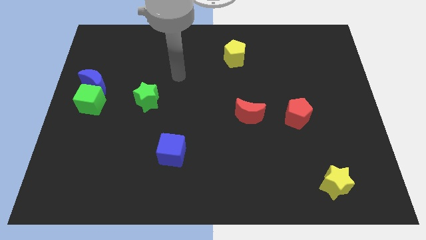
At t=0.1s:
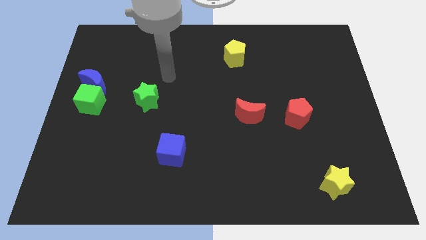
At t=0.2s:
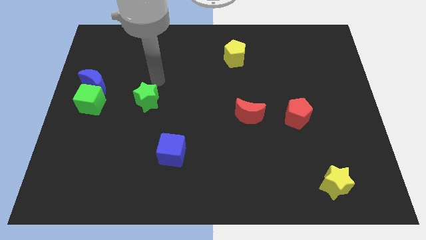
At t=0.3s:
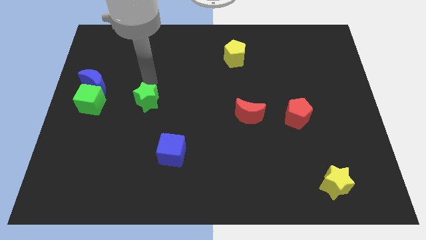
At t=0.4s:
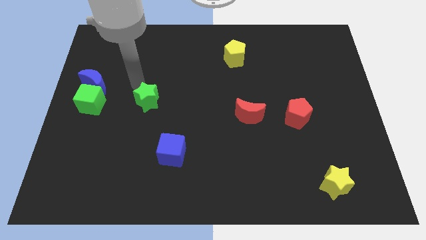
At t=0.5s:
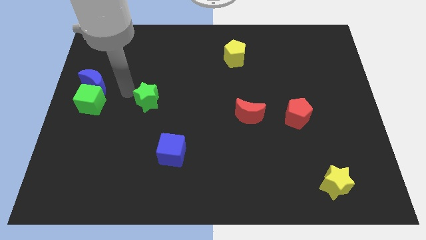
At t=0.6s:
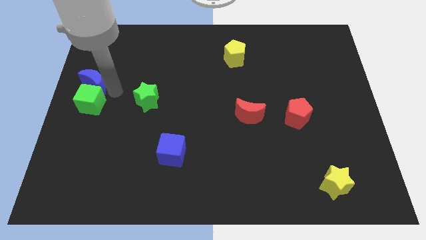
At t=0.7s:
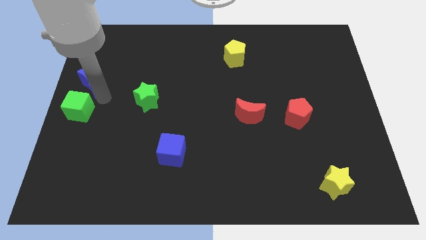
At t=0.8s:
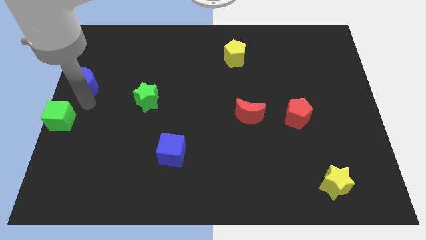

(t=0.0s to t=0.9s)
separate the blue moon from the green cube

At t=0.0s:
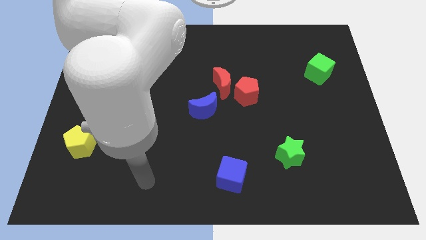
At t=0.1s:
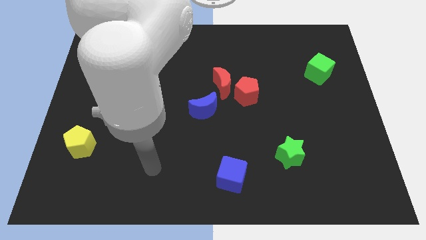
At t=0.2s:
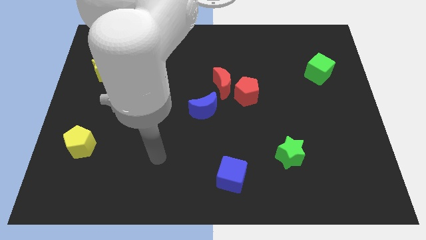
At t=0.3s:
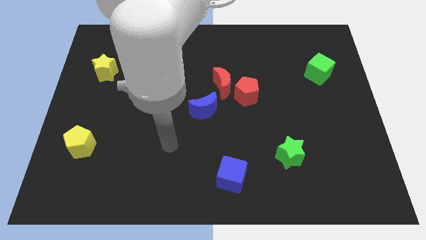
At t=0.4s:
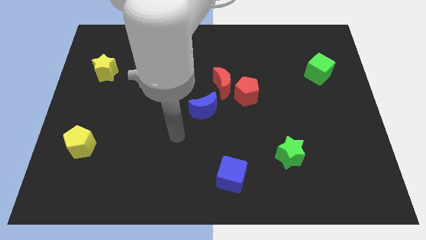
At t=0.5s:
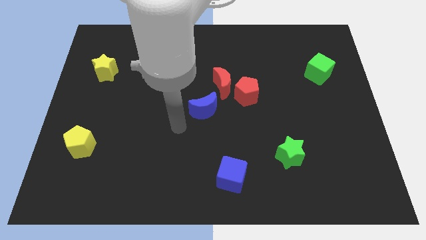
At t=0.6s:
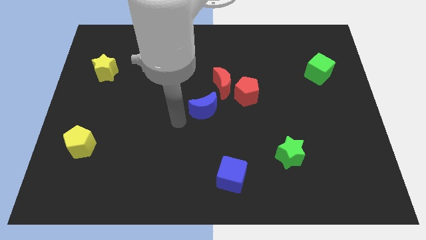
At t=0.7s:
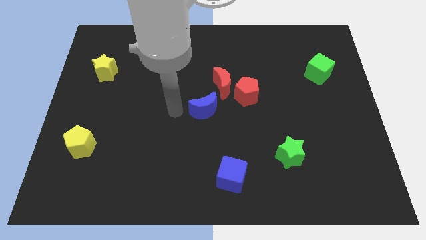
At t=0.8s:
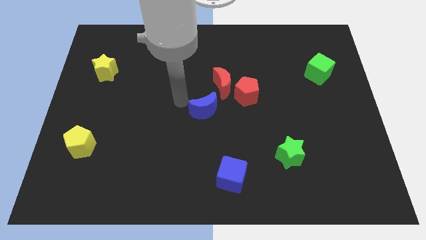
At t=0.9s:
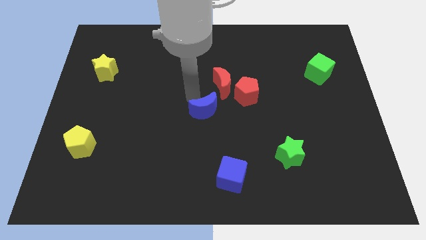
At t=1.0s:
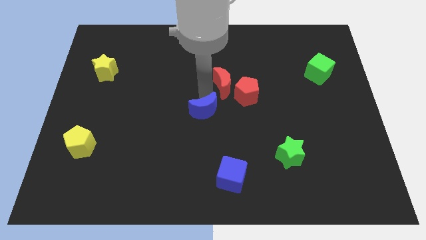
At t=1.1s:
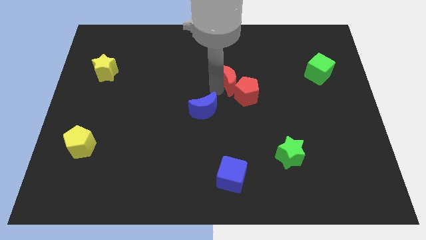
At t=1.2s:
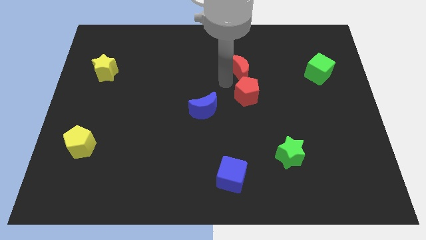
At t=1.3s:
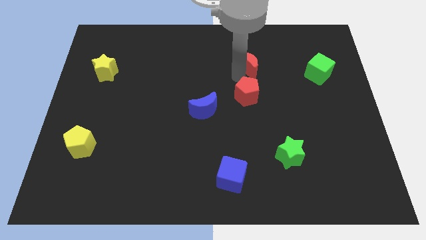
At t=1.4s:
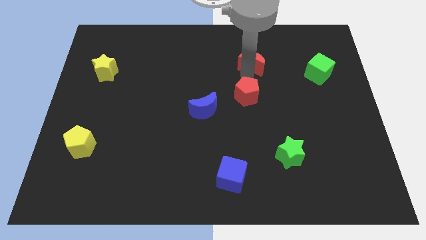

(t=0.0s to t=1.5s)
separate the red pentagon from the red moon

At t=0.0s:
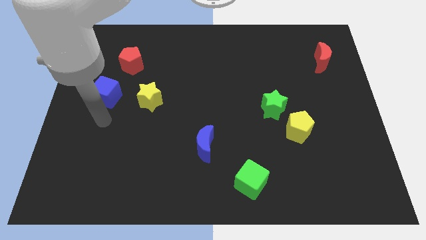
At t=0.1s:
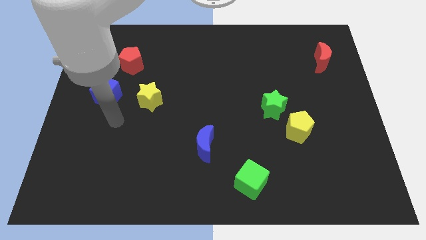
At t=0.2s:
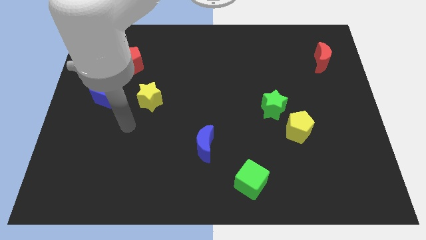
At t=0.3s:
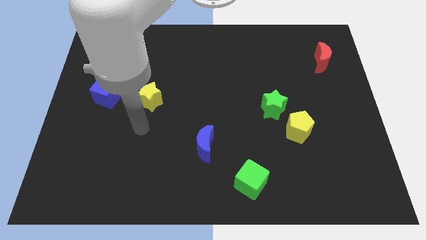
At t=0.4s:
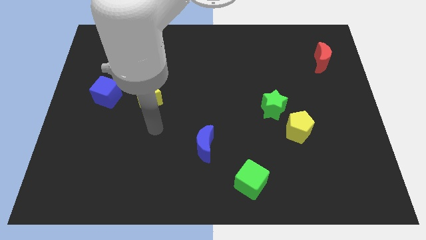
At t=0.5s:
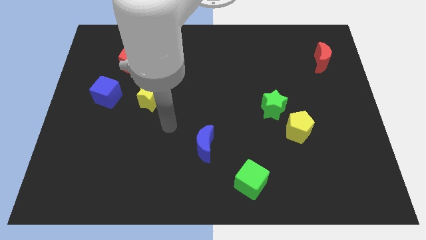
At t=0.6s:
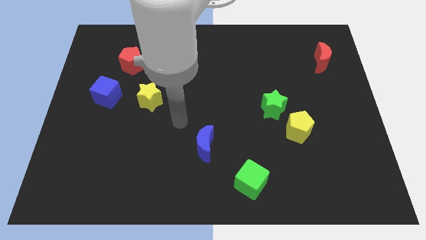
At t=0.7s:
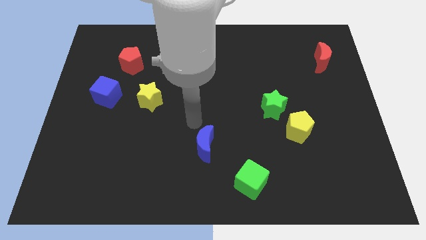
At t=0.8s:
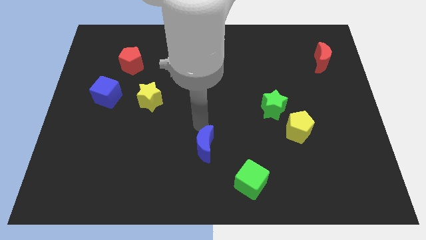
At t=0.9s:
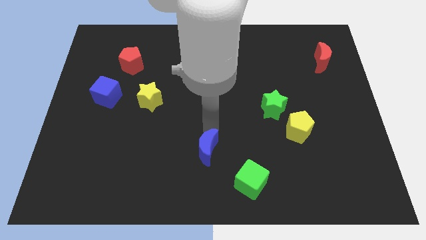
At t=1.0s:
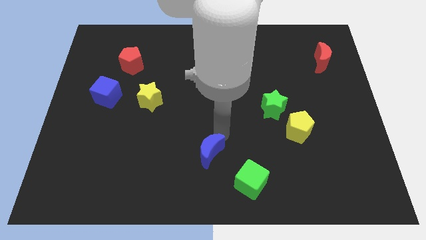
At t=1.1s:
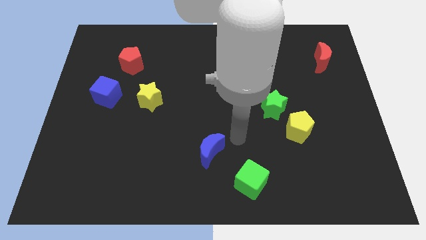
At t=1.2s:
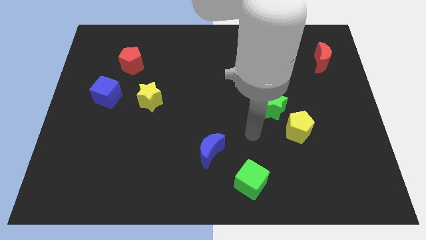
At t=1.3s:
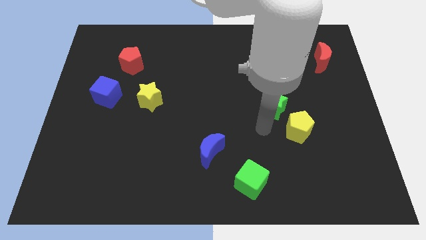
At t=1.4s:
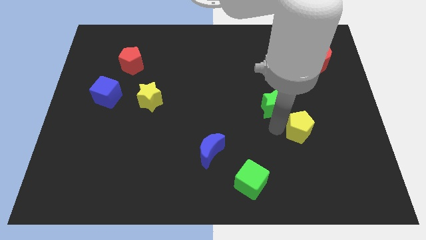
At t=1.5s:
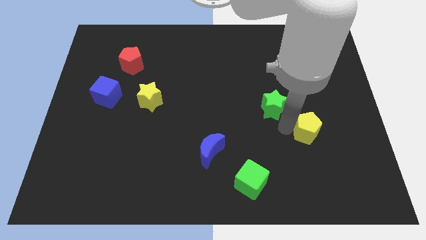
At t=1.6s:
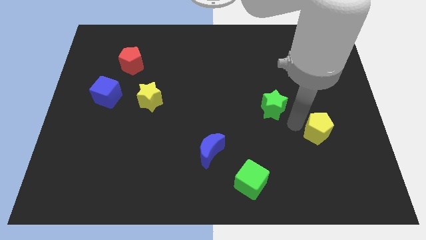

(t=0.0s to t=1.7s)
pull the green star apart from the yellow pentagon

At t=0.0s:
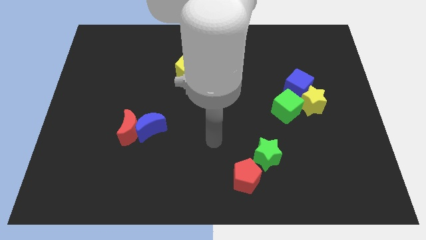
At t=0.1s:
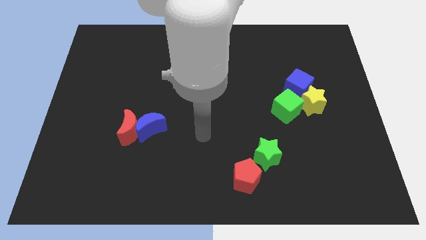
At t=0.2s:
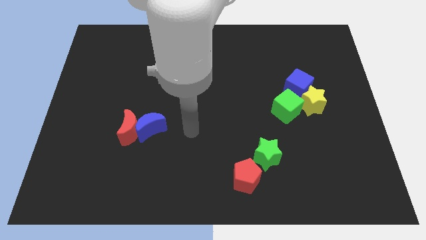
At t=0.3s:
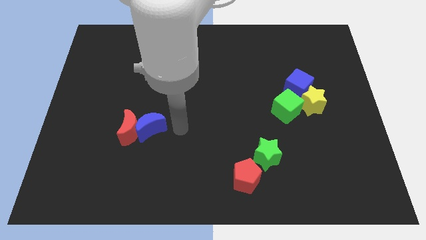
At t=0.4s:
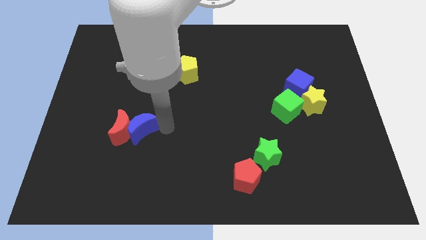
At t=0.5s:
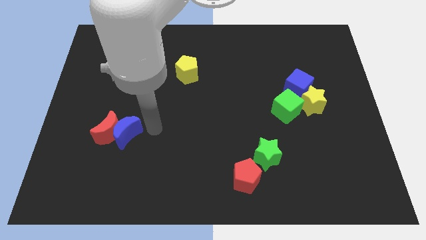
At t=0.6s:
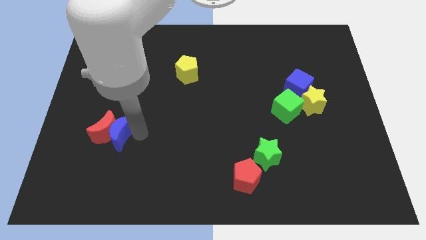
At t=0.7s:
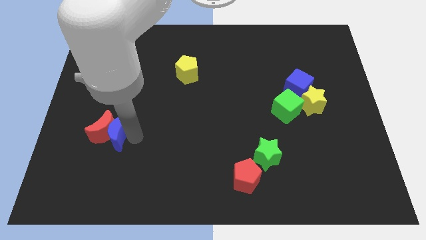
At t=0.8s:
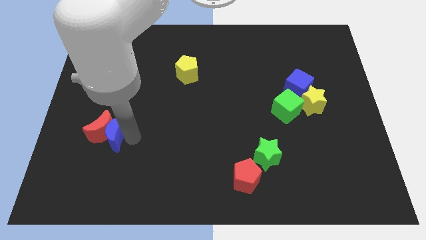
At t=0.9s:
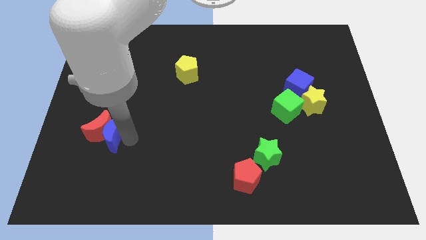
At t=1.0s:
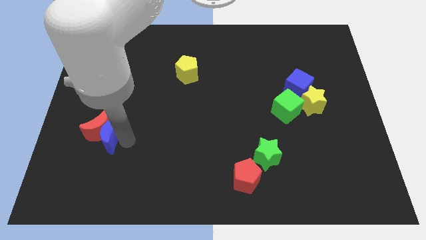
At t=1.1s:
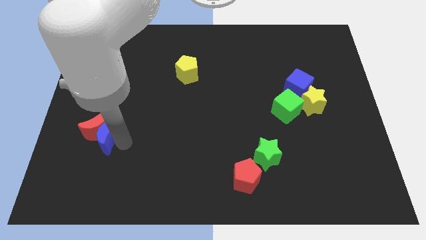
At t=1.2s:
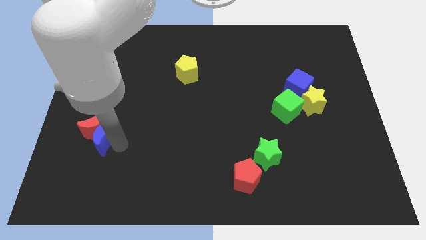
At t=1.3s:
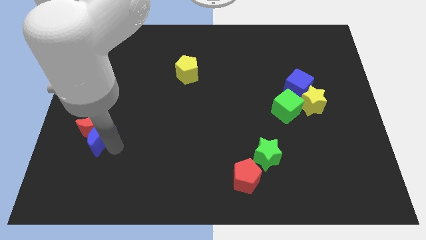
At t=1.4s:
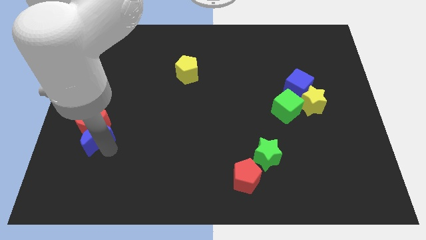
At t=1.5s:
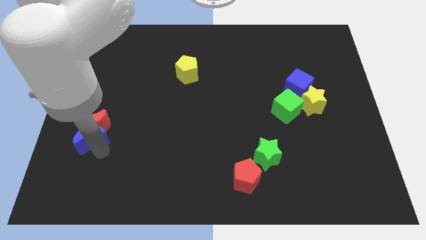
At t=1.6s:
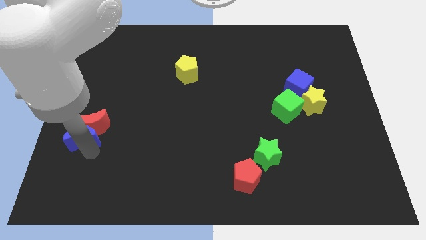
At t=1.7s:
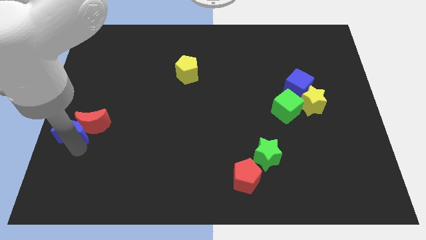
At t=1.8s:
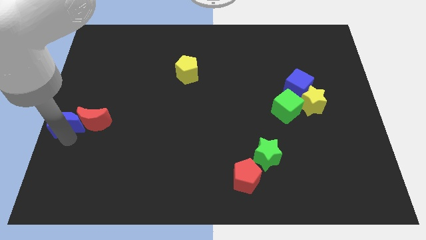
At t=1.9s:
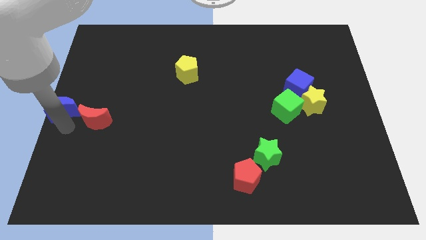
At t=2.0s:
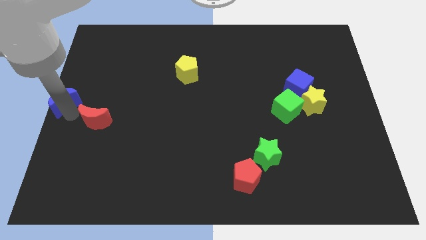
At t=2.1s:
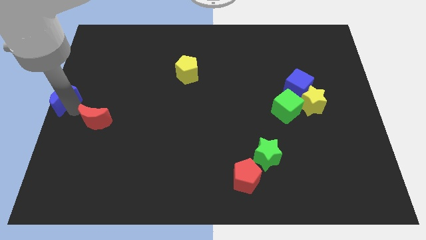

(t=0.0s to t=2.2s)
pull the red moon apart from the blue moon

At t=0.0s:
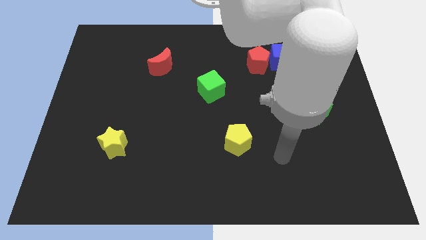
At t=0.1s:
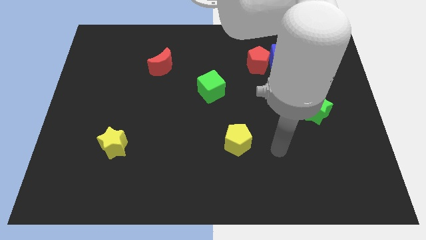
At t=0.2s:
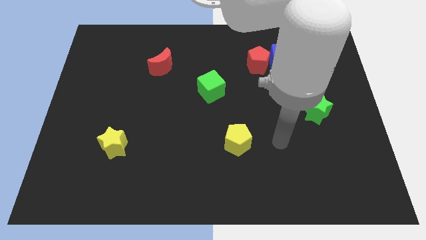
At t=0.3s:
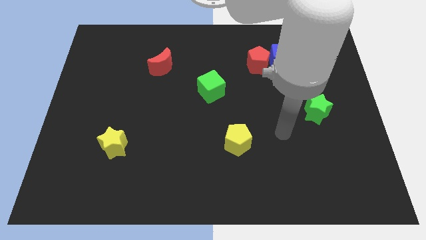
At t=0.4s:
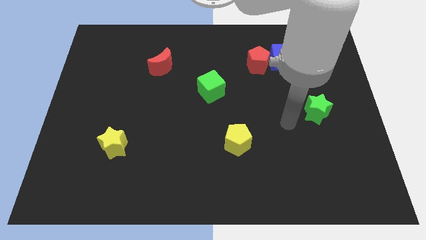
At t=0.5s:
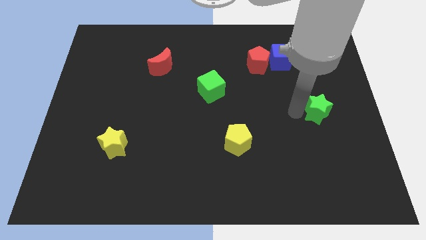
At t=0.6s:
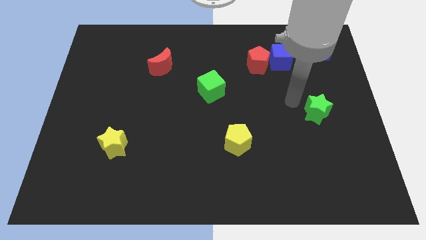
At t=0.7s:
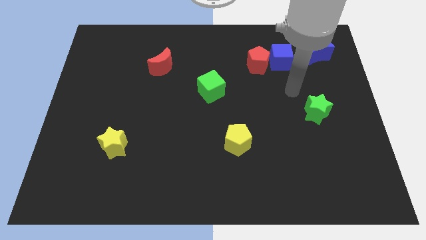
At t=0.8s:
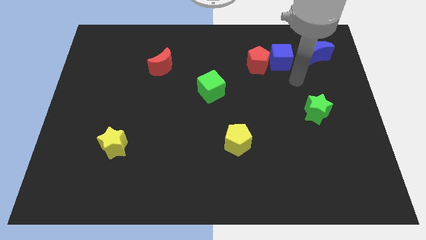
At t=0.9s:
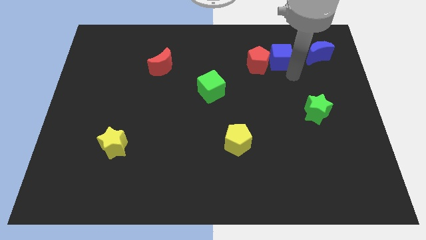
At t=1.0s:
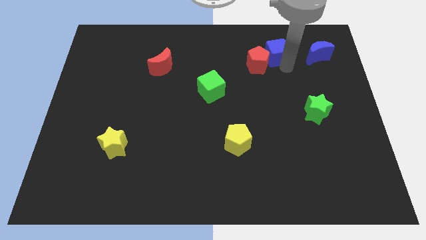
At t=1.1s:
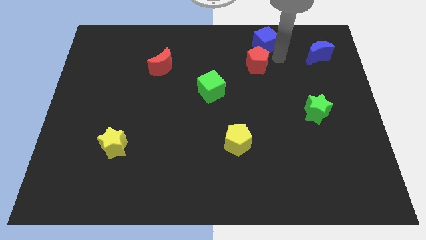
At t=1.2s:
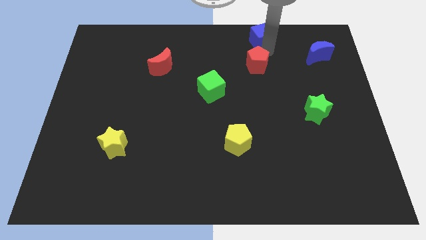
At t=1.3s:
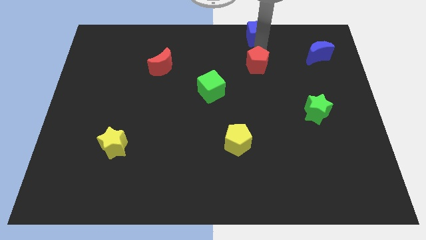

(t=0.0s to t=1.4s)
pull the red pentagon apart from the blue cube

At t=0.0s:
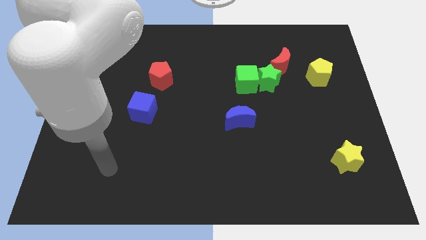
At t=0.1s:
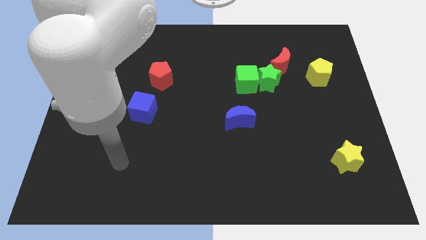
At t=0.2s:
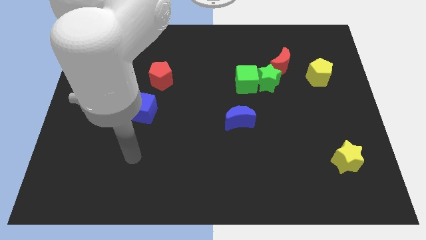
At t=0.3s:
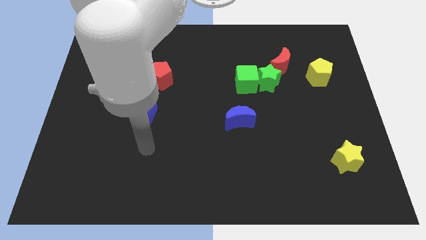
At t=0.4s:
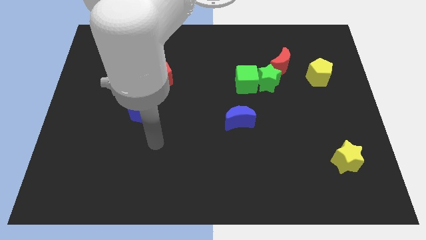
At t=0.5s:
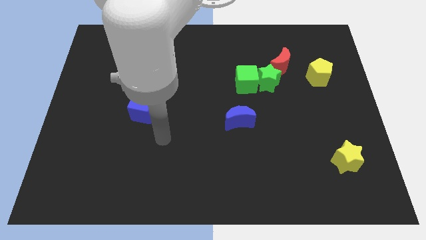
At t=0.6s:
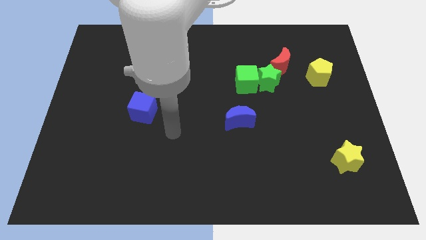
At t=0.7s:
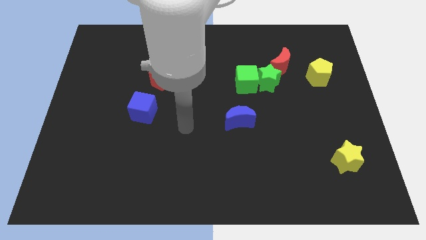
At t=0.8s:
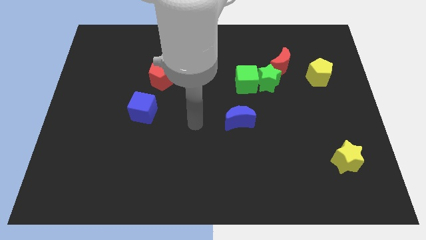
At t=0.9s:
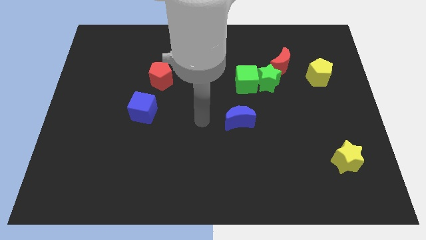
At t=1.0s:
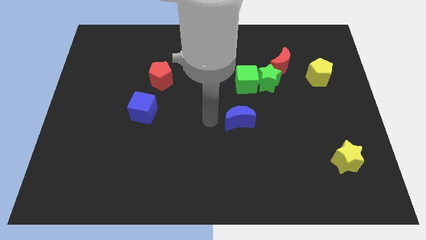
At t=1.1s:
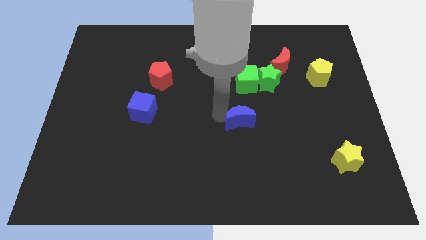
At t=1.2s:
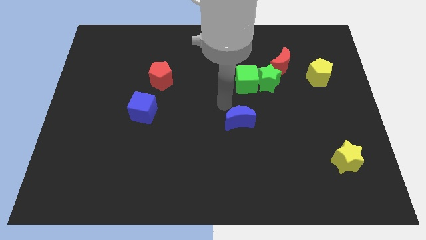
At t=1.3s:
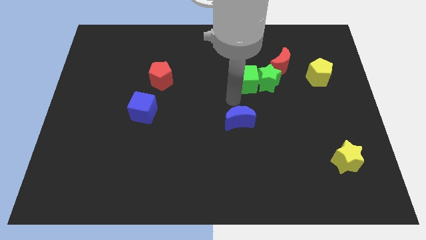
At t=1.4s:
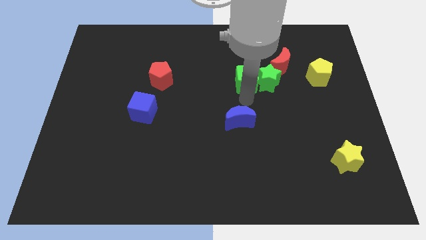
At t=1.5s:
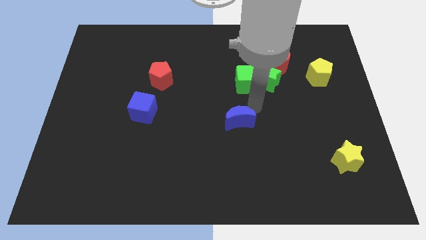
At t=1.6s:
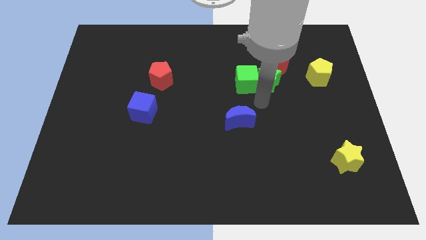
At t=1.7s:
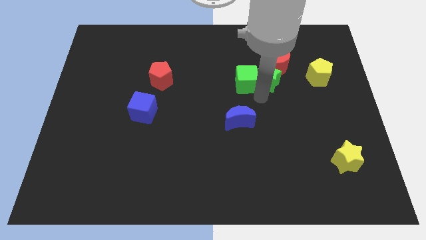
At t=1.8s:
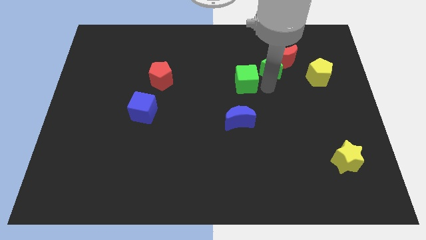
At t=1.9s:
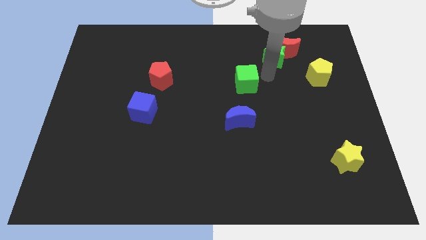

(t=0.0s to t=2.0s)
separate the green cube from the green star
